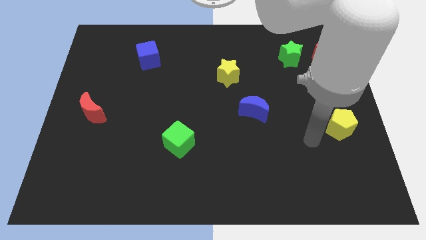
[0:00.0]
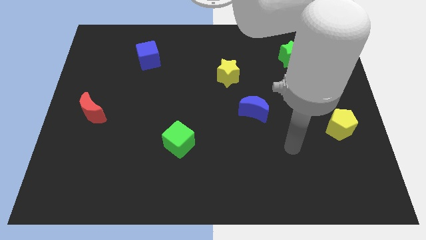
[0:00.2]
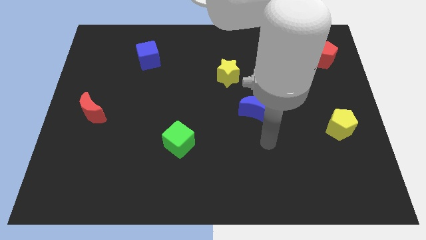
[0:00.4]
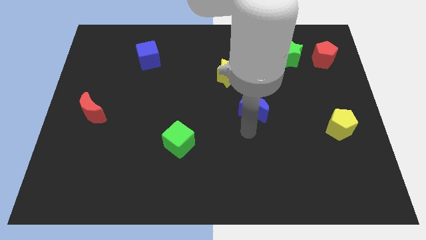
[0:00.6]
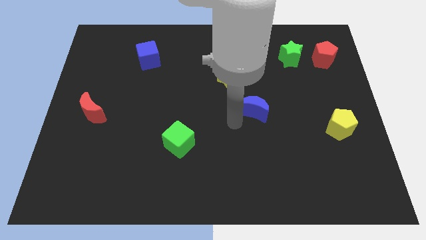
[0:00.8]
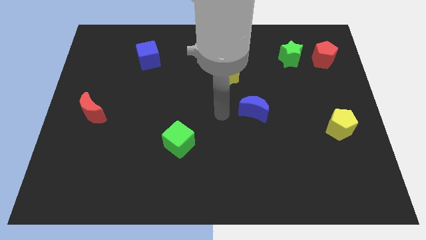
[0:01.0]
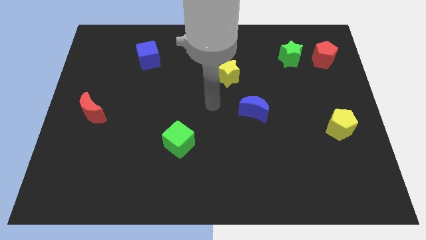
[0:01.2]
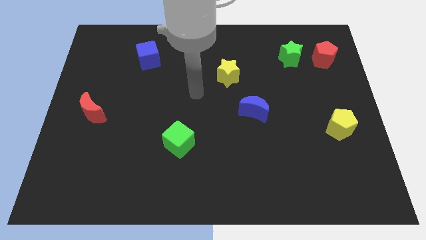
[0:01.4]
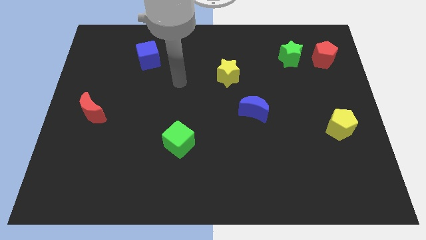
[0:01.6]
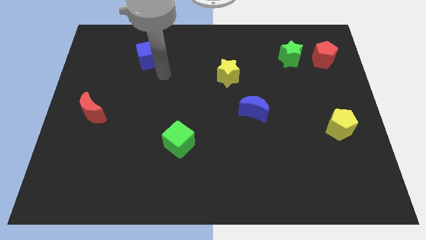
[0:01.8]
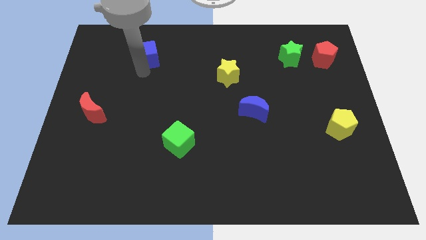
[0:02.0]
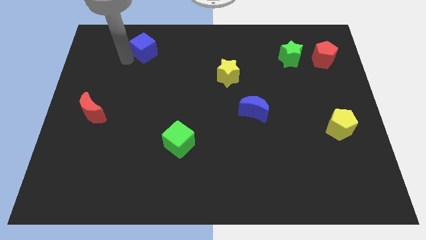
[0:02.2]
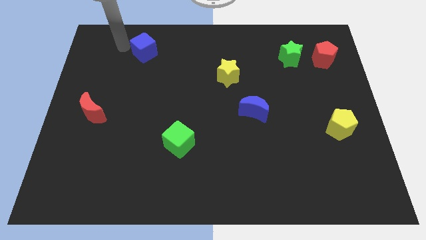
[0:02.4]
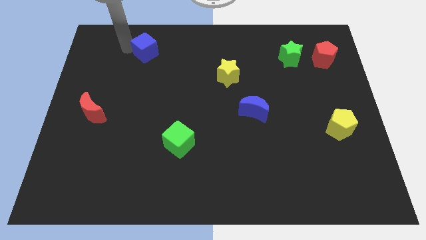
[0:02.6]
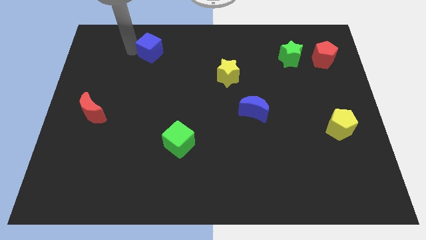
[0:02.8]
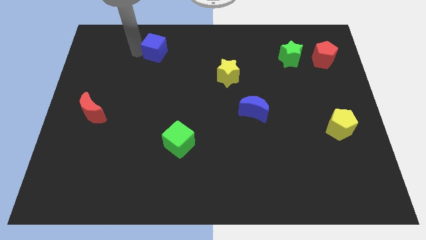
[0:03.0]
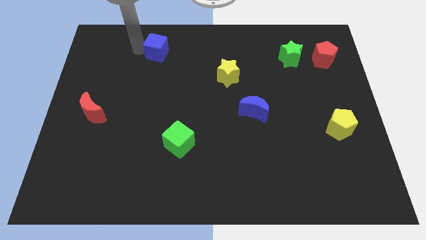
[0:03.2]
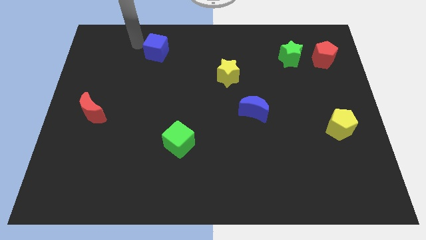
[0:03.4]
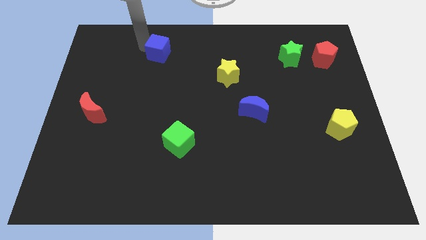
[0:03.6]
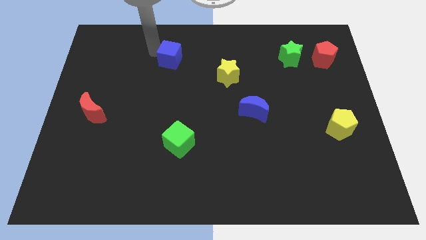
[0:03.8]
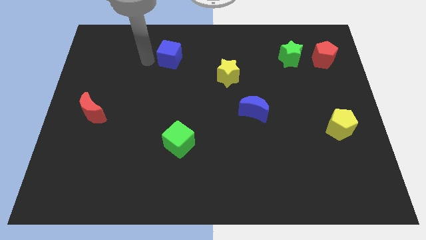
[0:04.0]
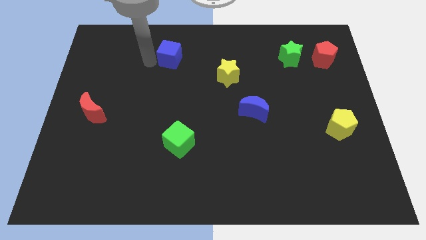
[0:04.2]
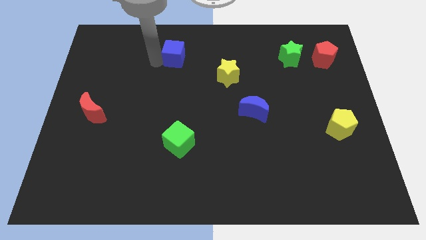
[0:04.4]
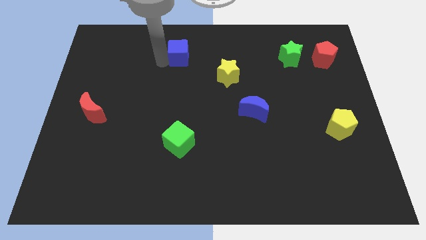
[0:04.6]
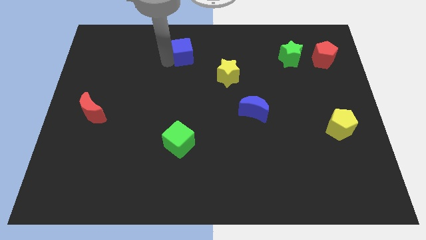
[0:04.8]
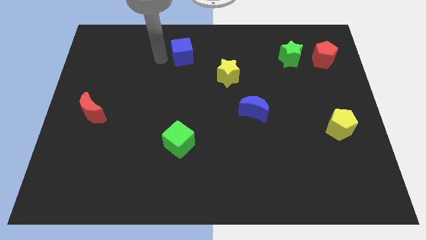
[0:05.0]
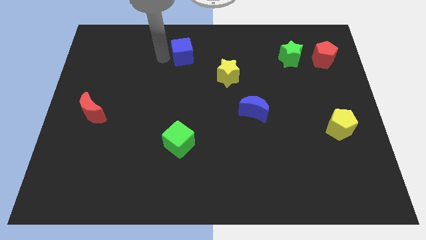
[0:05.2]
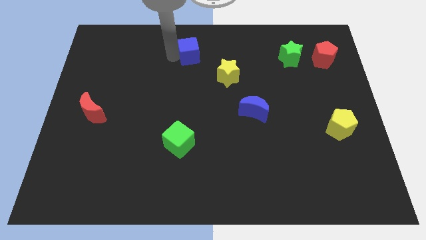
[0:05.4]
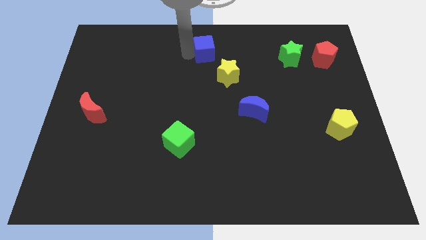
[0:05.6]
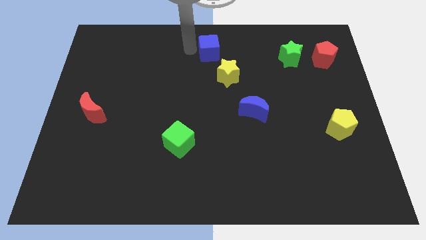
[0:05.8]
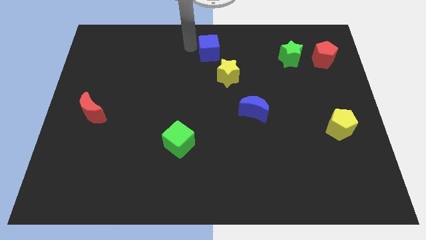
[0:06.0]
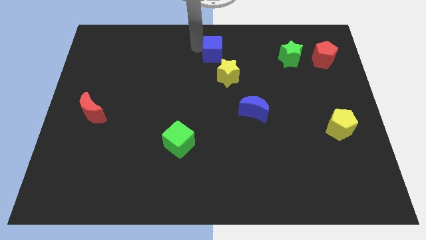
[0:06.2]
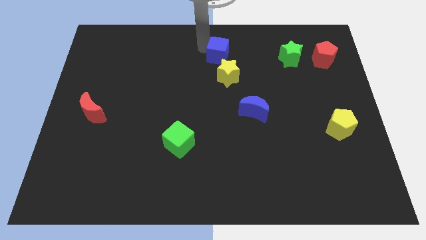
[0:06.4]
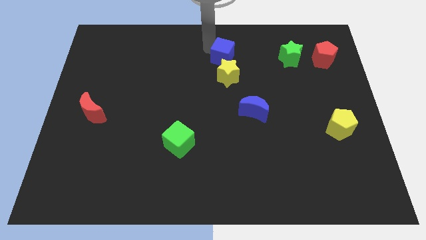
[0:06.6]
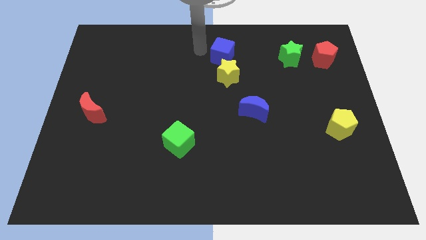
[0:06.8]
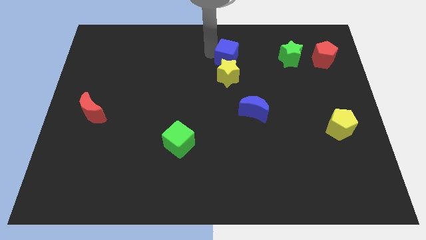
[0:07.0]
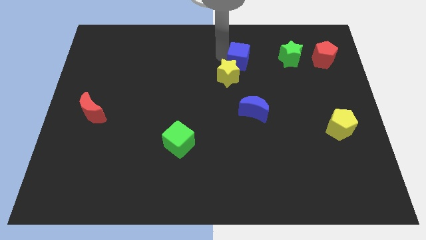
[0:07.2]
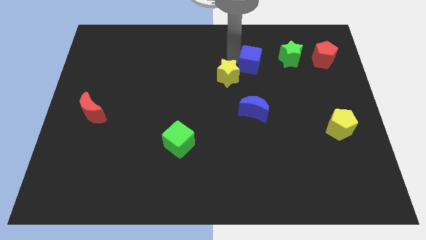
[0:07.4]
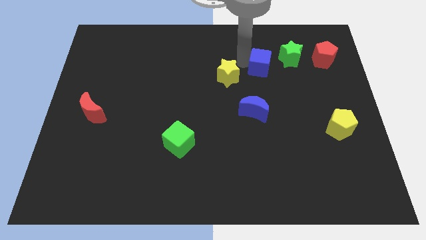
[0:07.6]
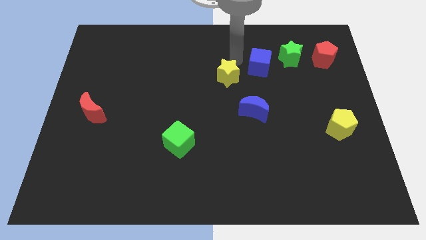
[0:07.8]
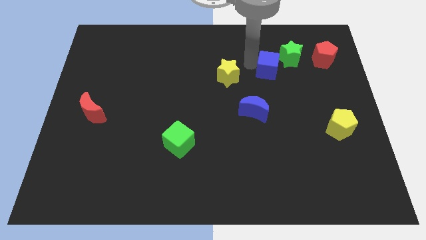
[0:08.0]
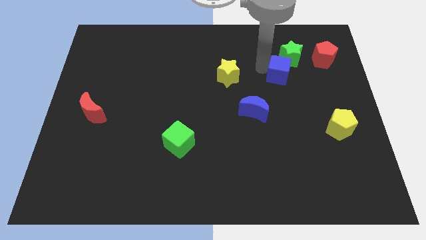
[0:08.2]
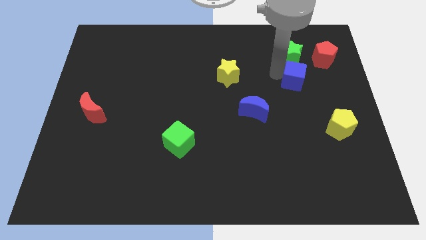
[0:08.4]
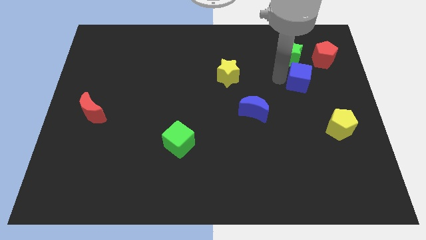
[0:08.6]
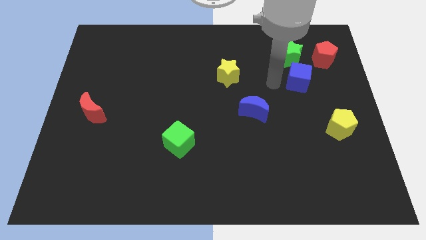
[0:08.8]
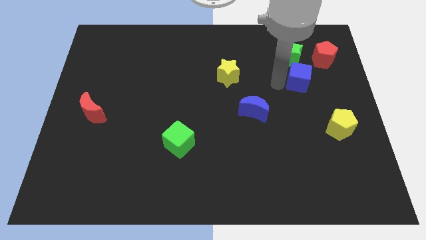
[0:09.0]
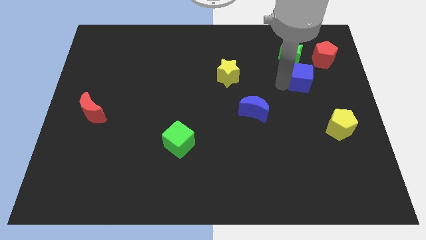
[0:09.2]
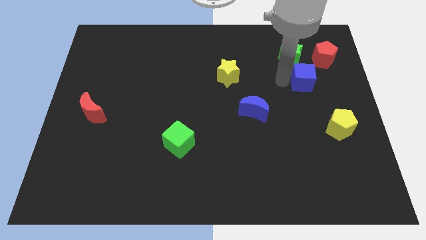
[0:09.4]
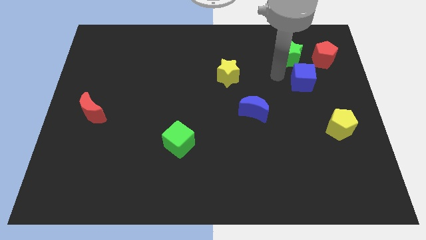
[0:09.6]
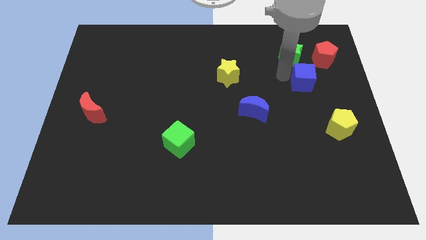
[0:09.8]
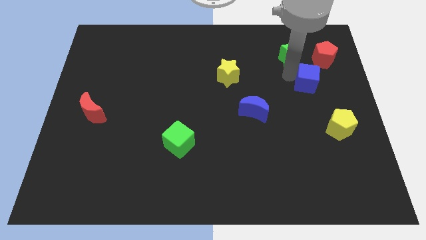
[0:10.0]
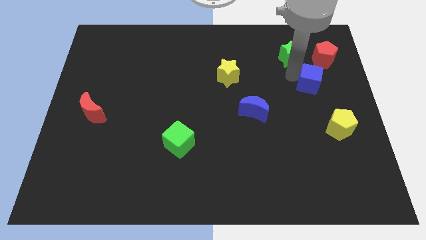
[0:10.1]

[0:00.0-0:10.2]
move the blue cube to the bottom of the red pentagon
